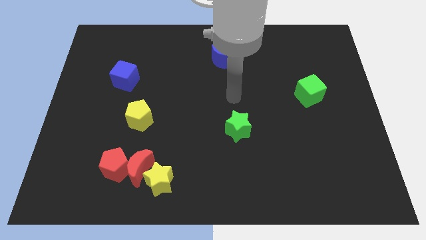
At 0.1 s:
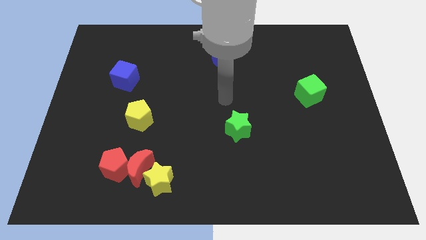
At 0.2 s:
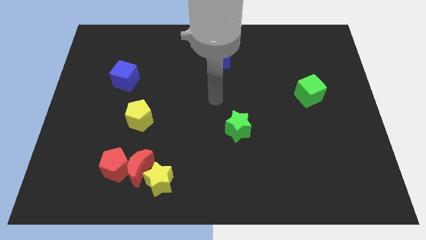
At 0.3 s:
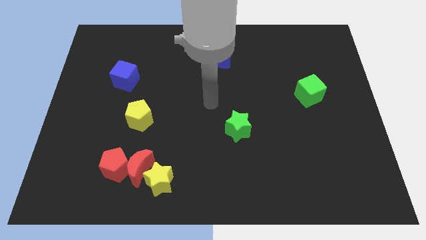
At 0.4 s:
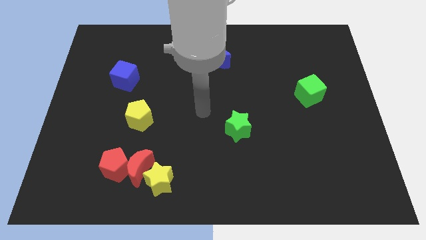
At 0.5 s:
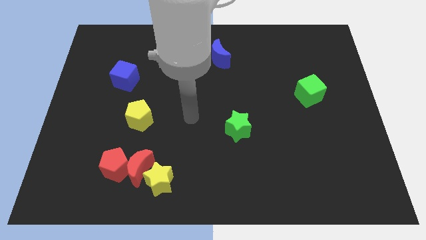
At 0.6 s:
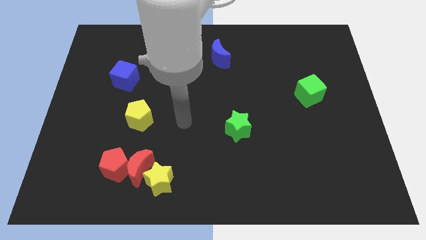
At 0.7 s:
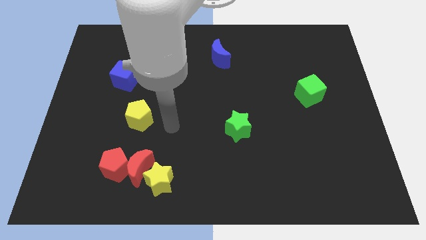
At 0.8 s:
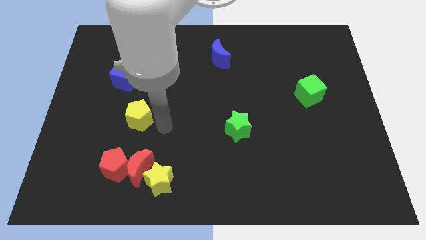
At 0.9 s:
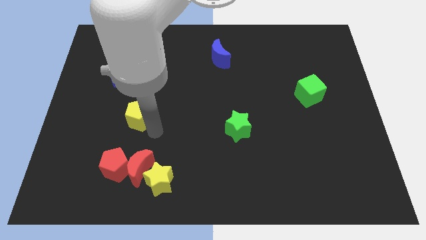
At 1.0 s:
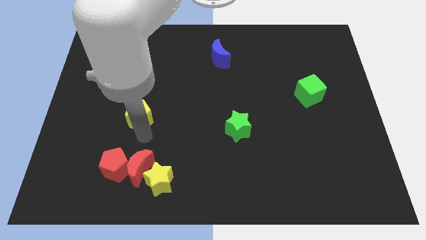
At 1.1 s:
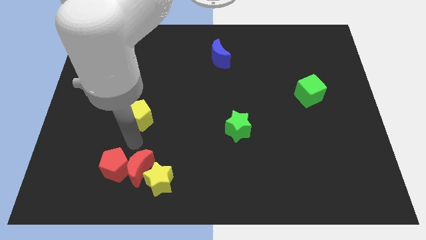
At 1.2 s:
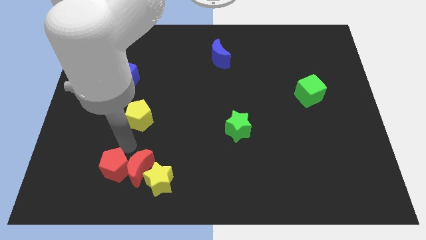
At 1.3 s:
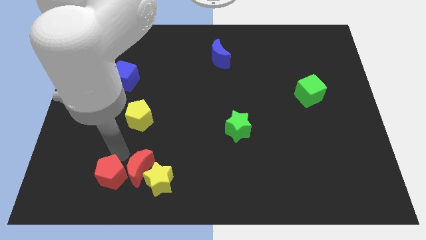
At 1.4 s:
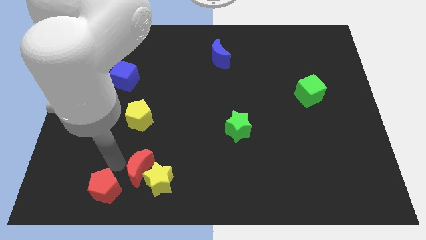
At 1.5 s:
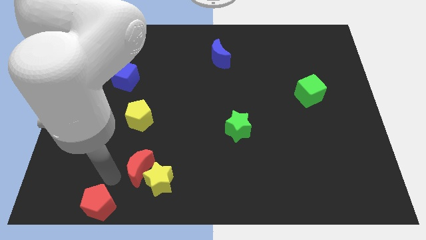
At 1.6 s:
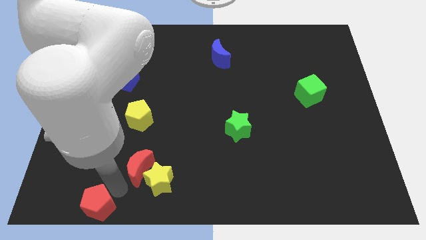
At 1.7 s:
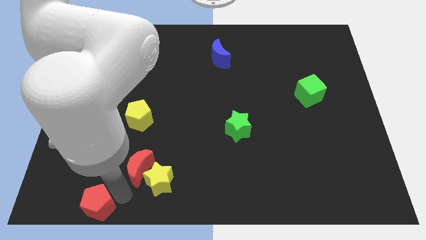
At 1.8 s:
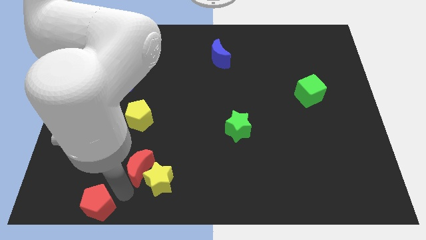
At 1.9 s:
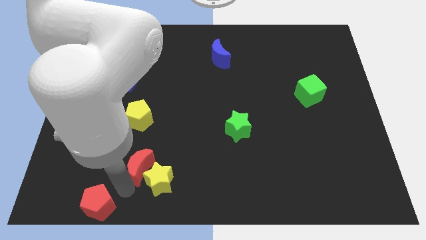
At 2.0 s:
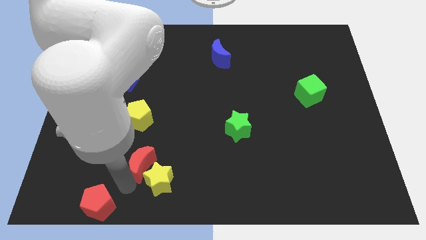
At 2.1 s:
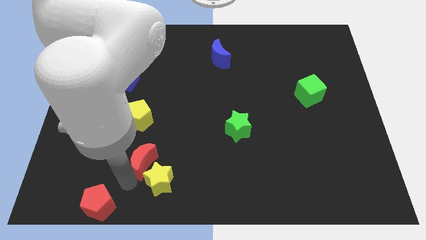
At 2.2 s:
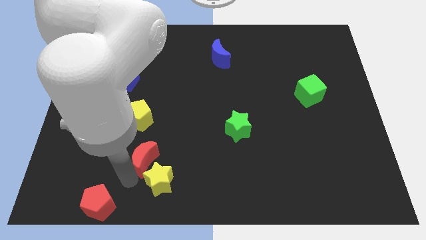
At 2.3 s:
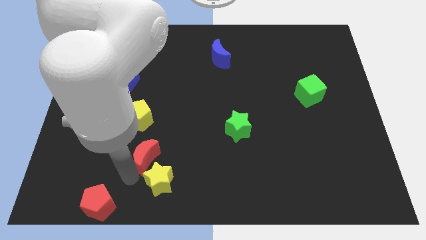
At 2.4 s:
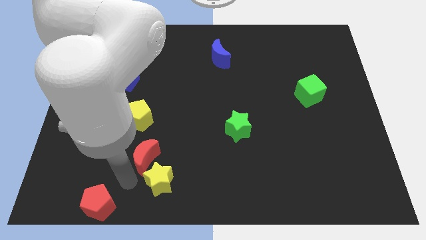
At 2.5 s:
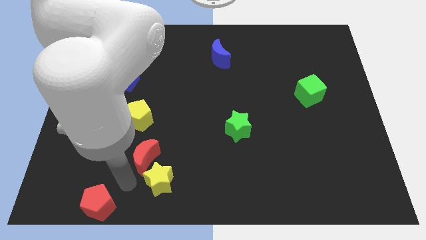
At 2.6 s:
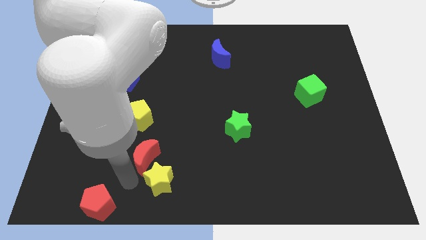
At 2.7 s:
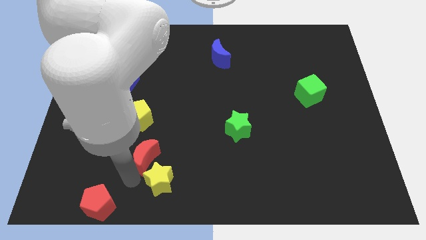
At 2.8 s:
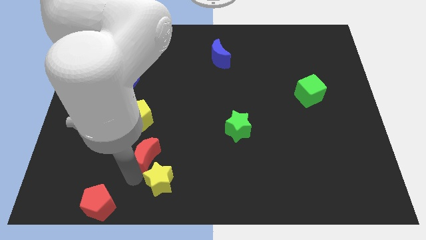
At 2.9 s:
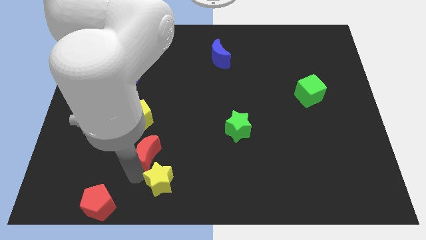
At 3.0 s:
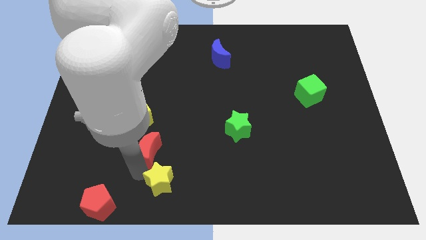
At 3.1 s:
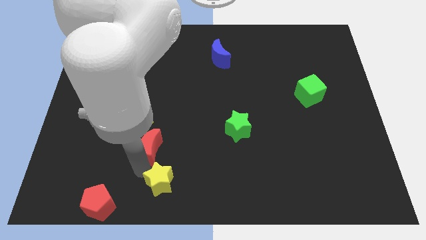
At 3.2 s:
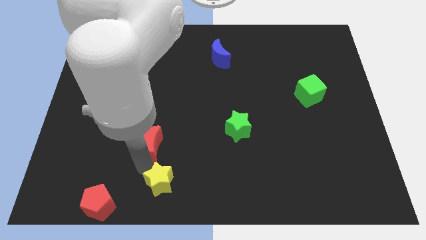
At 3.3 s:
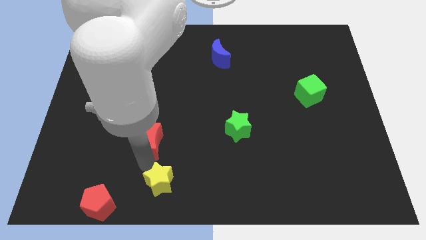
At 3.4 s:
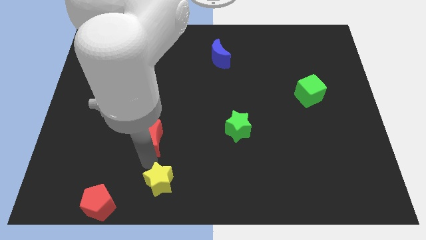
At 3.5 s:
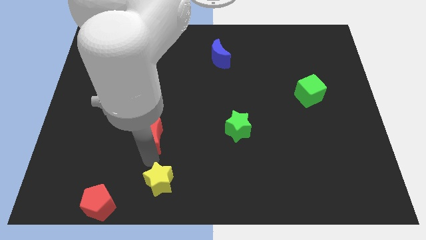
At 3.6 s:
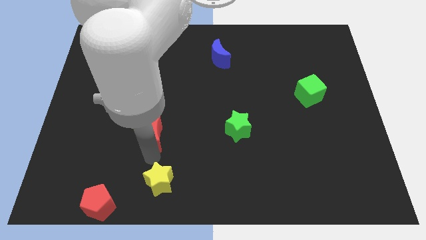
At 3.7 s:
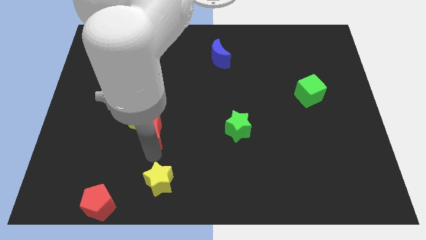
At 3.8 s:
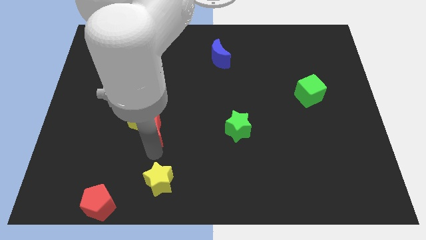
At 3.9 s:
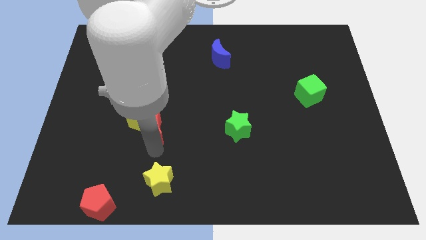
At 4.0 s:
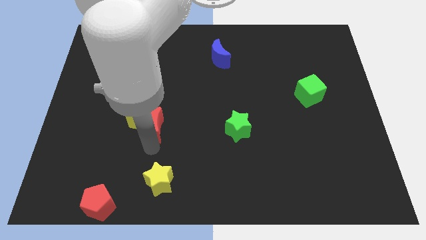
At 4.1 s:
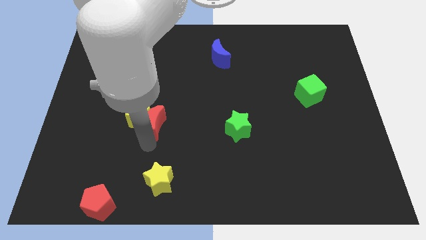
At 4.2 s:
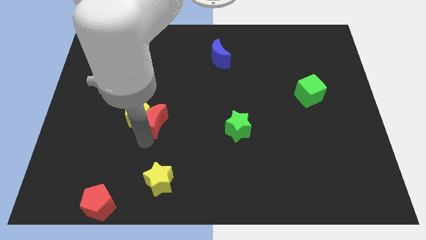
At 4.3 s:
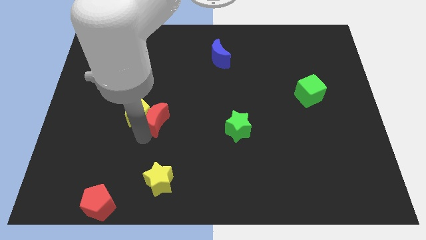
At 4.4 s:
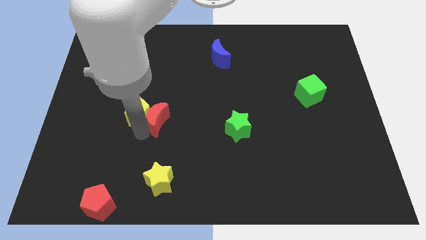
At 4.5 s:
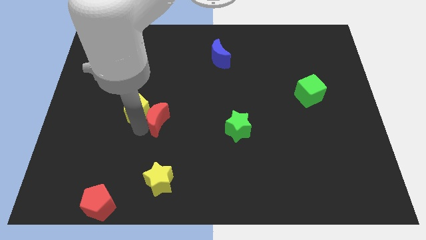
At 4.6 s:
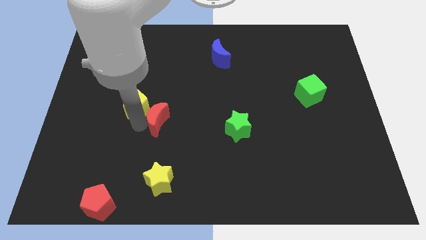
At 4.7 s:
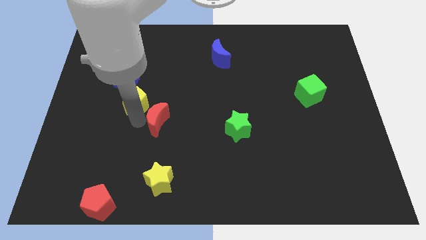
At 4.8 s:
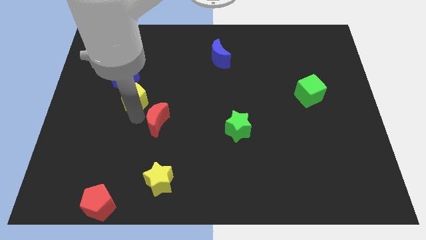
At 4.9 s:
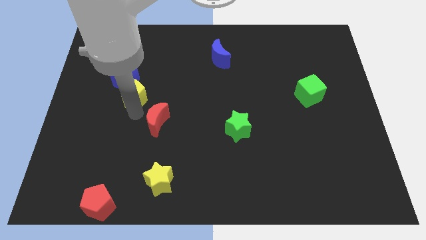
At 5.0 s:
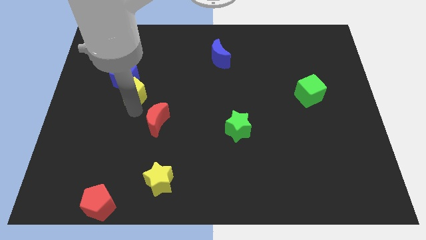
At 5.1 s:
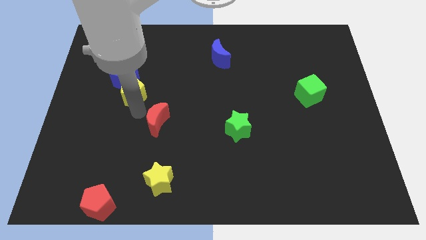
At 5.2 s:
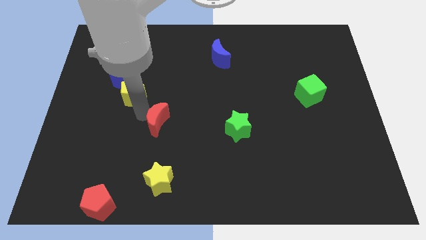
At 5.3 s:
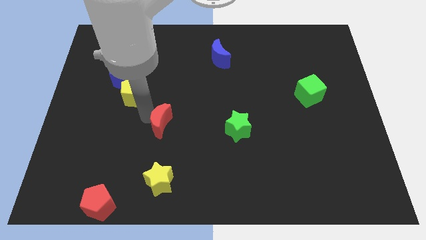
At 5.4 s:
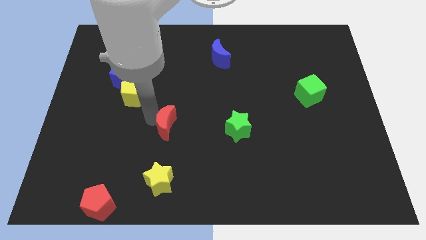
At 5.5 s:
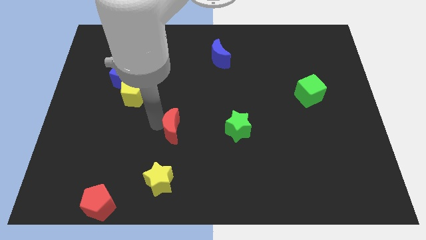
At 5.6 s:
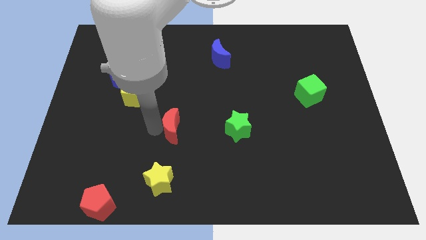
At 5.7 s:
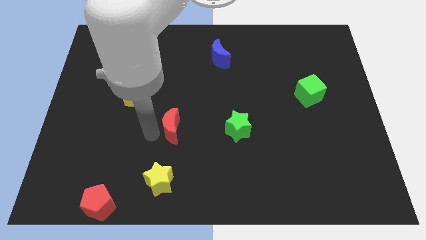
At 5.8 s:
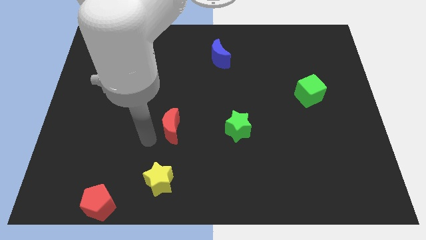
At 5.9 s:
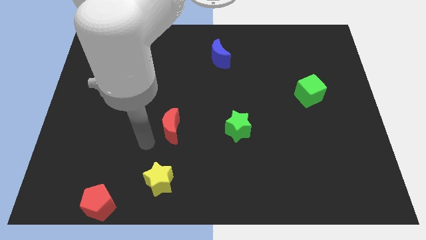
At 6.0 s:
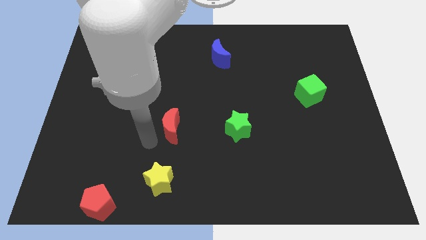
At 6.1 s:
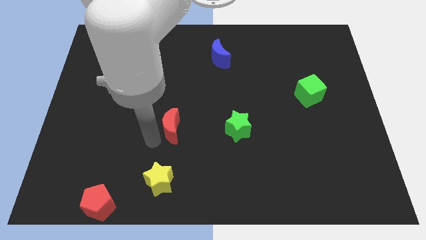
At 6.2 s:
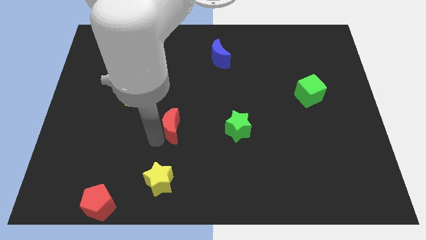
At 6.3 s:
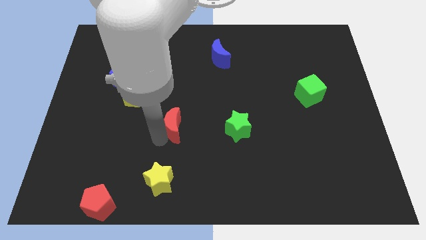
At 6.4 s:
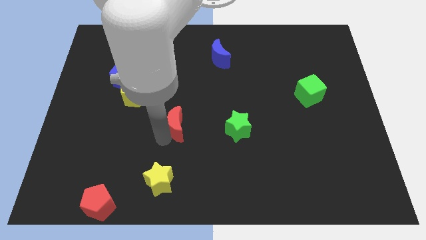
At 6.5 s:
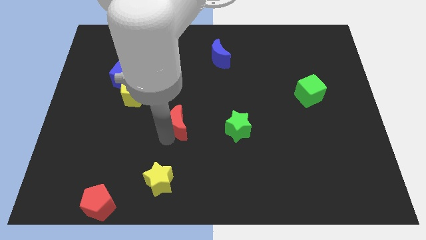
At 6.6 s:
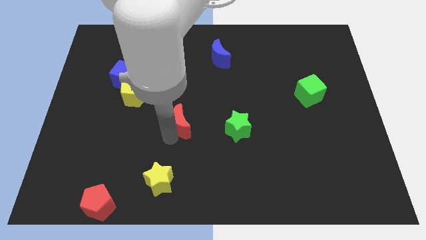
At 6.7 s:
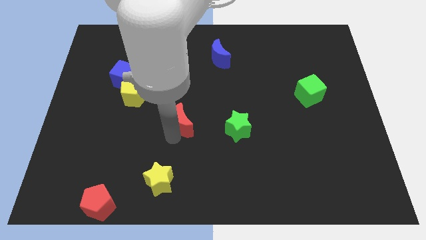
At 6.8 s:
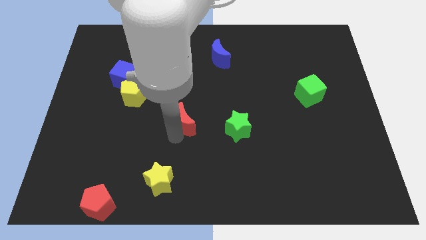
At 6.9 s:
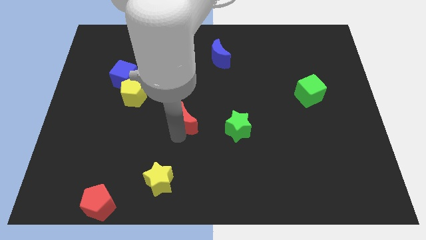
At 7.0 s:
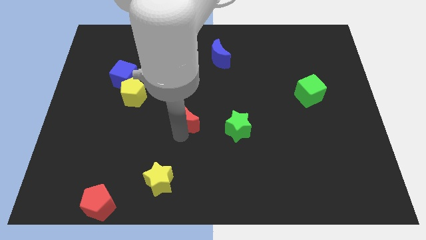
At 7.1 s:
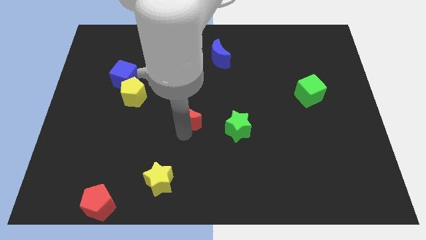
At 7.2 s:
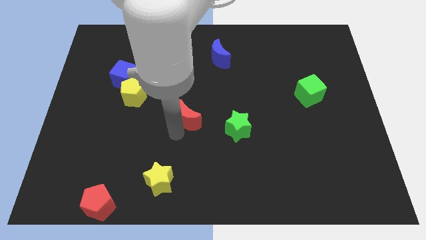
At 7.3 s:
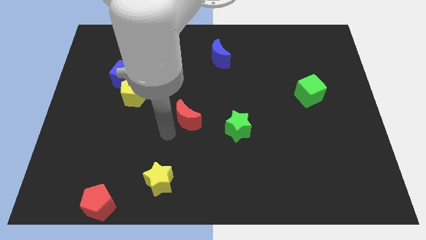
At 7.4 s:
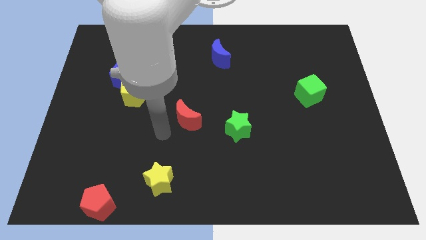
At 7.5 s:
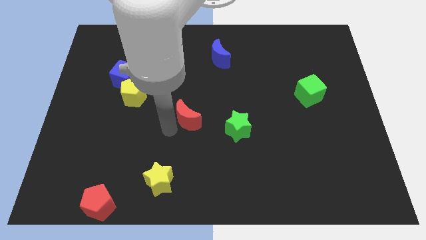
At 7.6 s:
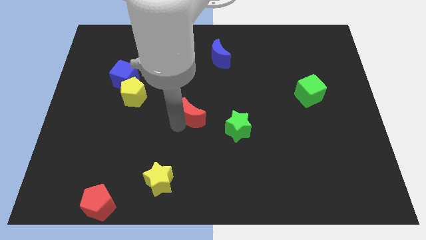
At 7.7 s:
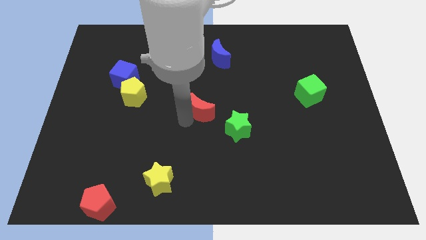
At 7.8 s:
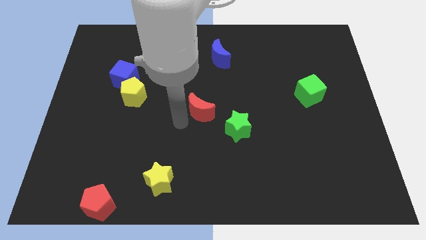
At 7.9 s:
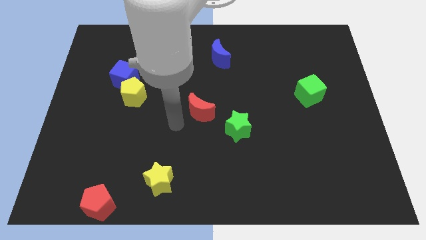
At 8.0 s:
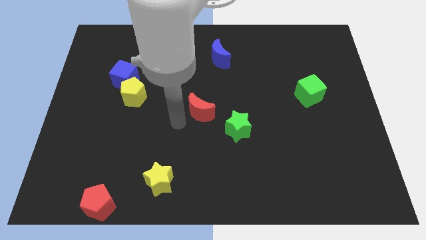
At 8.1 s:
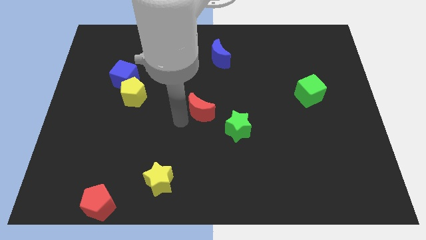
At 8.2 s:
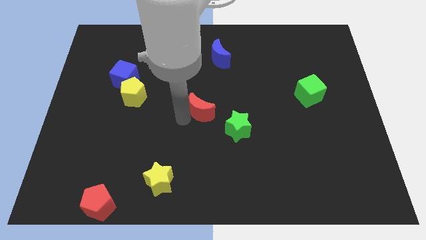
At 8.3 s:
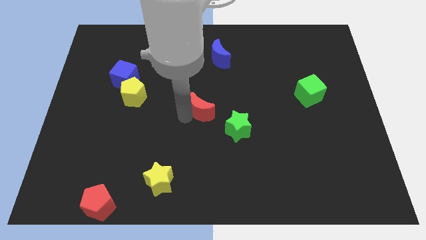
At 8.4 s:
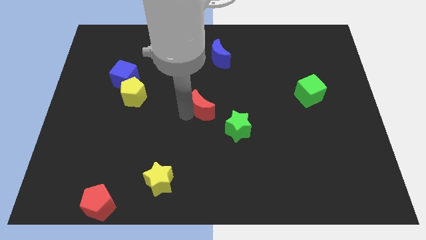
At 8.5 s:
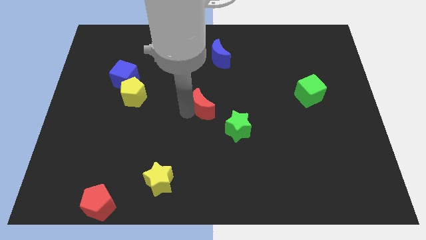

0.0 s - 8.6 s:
move the red moon up and to the right diagonally
